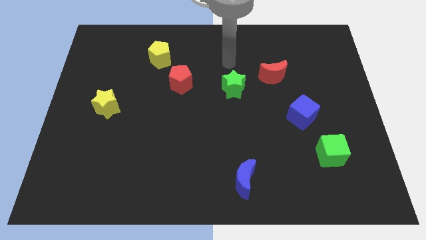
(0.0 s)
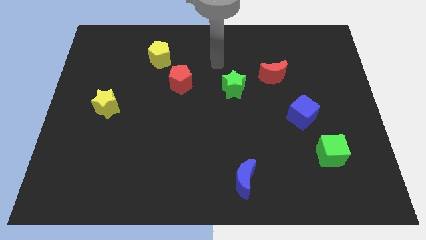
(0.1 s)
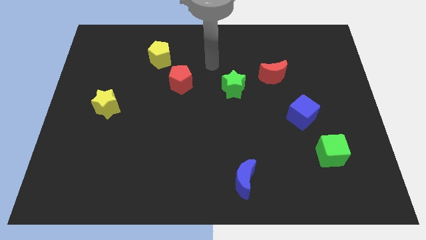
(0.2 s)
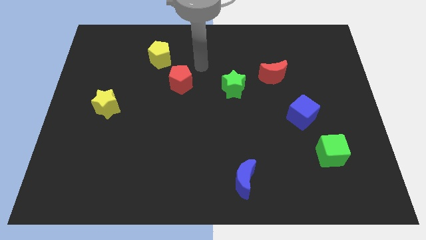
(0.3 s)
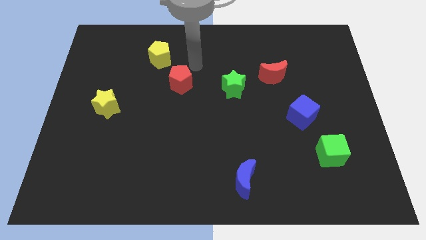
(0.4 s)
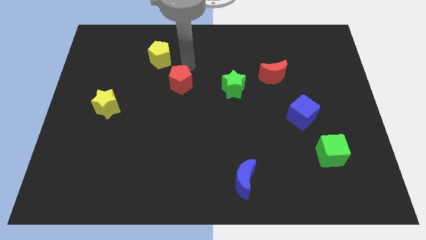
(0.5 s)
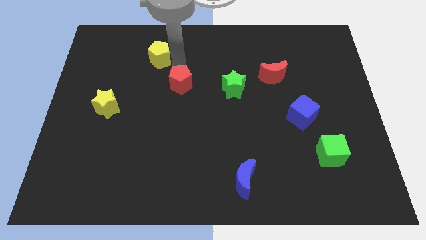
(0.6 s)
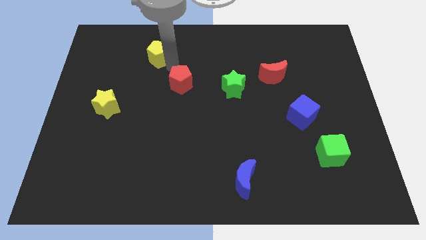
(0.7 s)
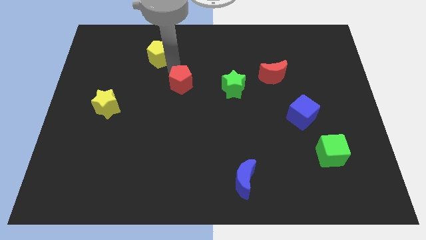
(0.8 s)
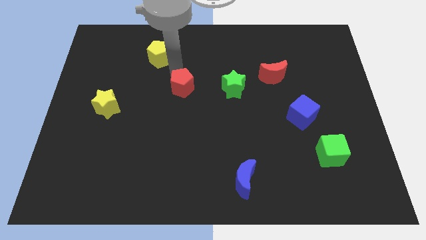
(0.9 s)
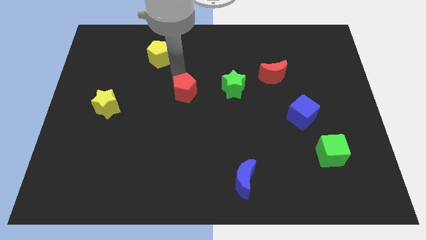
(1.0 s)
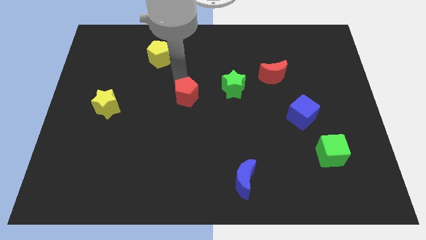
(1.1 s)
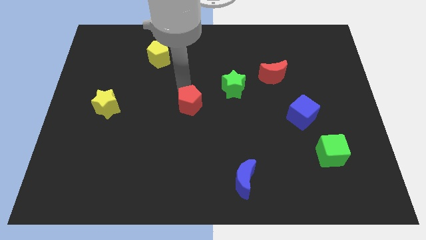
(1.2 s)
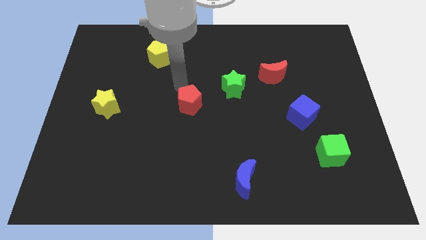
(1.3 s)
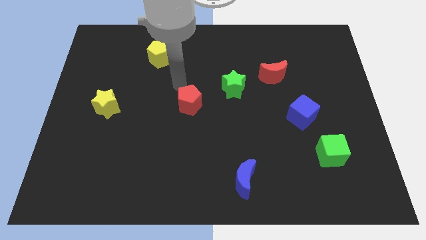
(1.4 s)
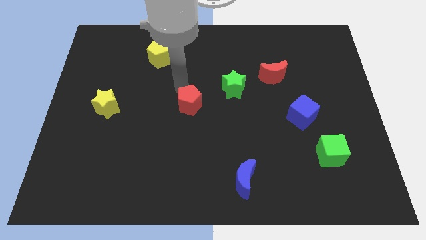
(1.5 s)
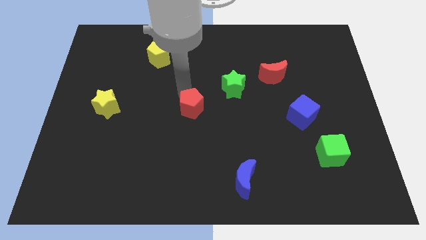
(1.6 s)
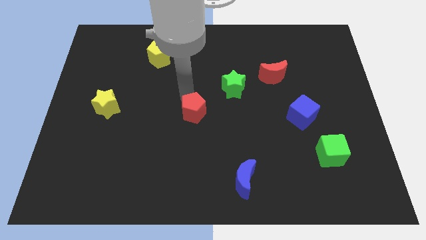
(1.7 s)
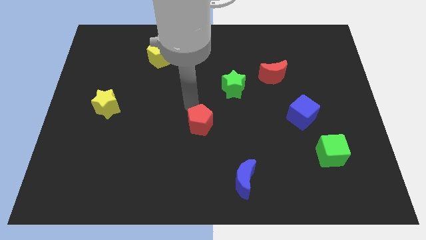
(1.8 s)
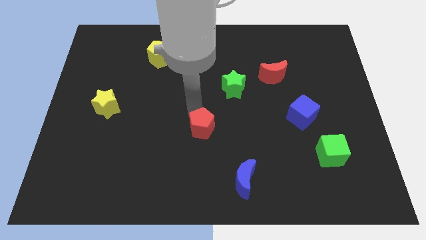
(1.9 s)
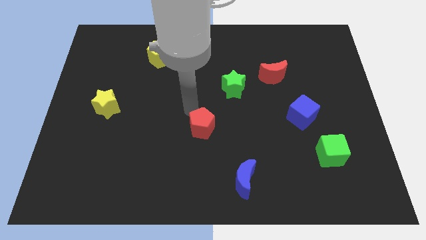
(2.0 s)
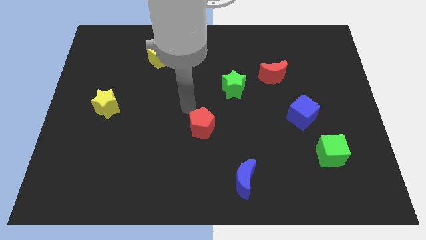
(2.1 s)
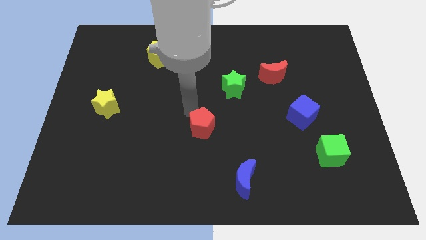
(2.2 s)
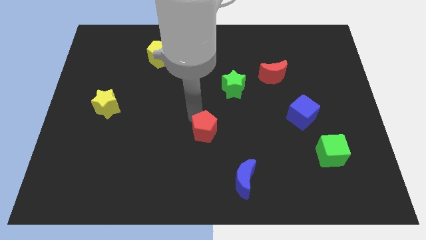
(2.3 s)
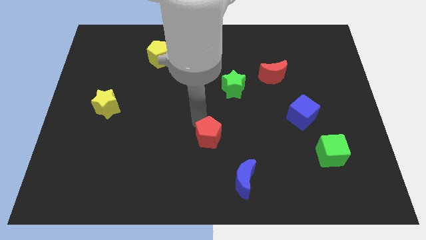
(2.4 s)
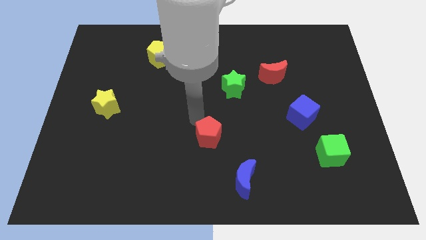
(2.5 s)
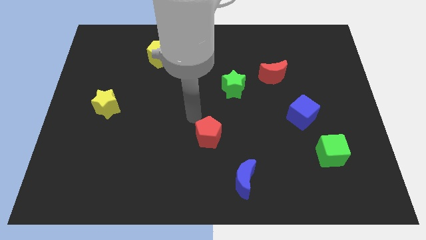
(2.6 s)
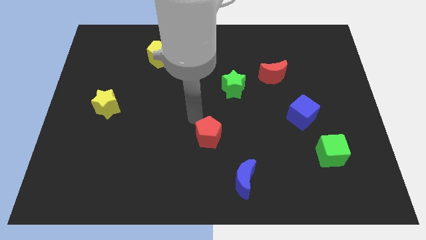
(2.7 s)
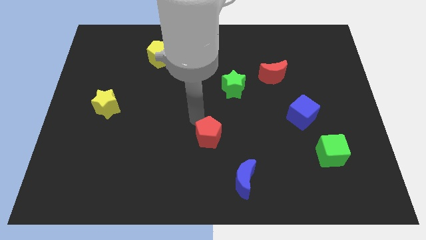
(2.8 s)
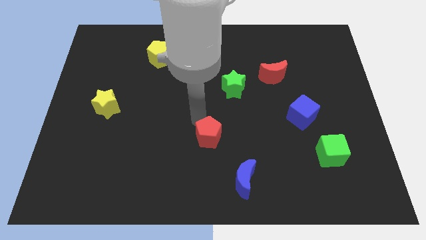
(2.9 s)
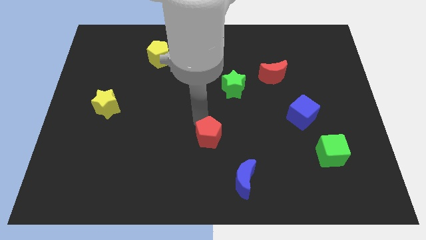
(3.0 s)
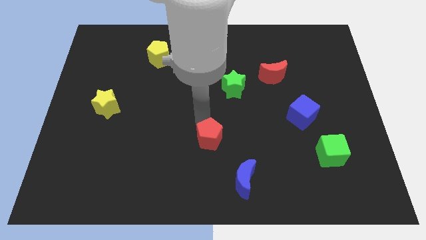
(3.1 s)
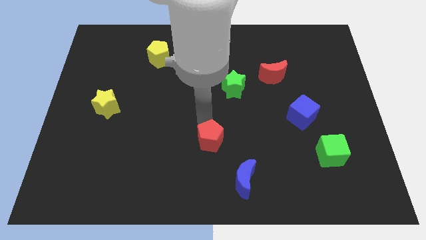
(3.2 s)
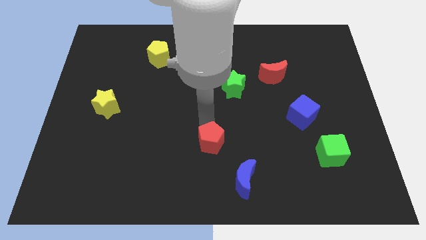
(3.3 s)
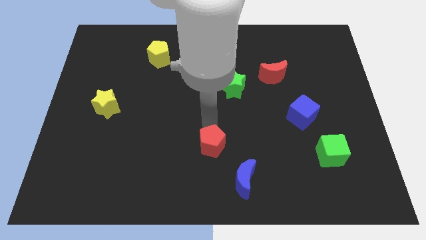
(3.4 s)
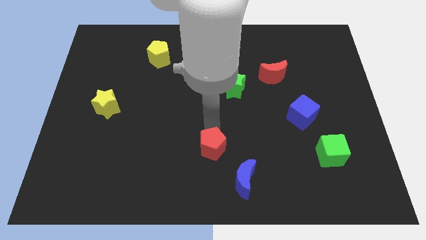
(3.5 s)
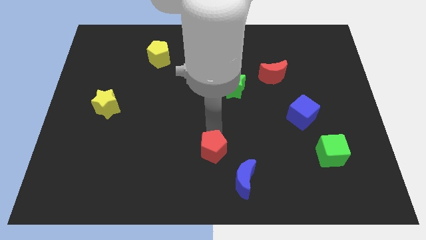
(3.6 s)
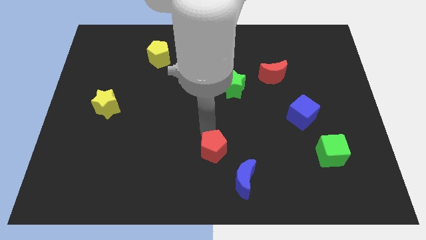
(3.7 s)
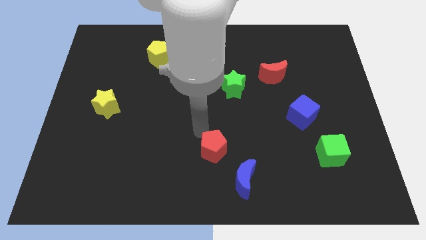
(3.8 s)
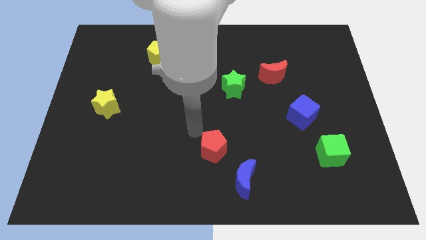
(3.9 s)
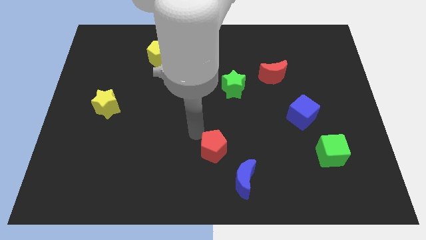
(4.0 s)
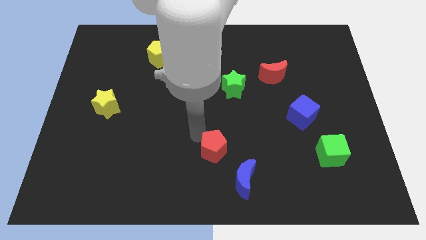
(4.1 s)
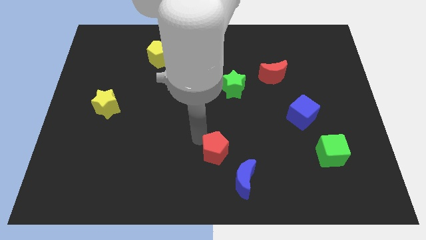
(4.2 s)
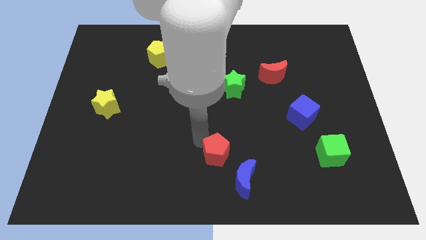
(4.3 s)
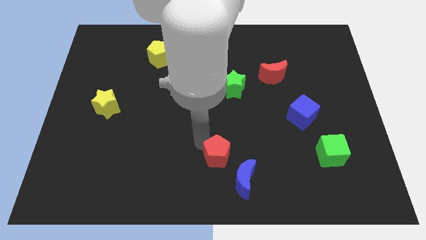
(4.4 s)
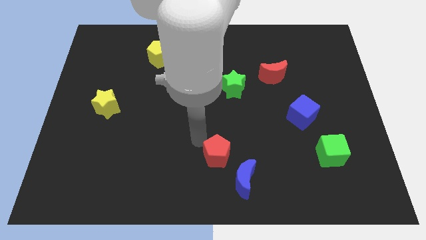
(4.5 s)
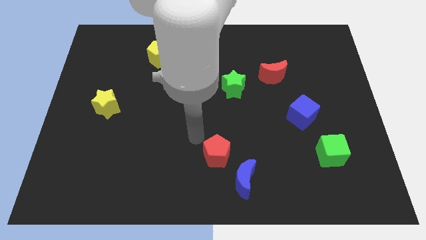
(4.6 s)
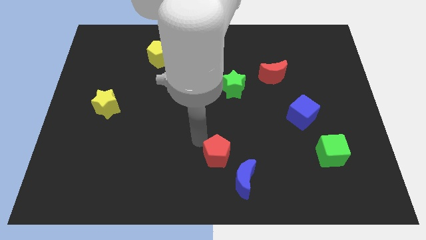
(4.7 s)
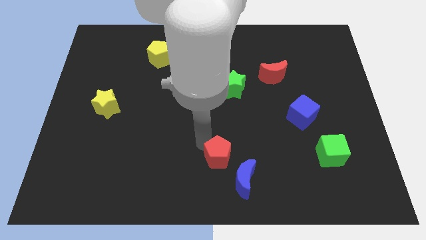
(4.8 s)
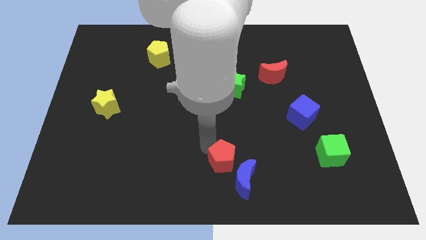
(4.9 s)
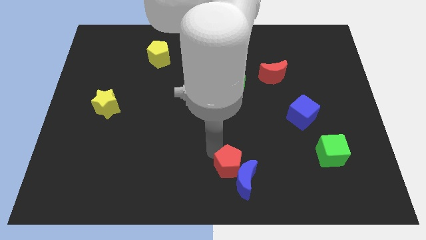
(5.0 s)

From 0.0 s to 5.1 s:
put the red pentagon close to the blue moon

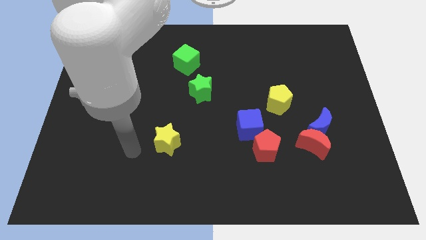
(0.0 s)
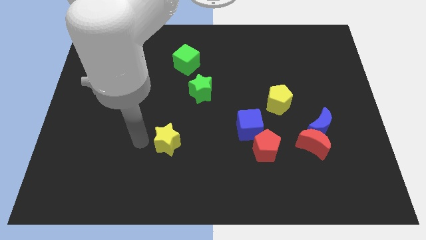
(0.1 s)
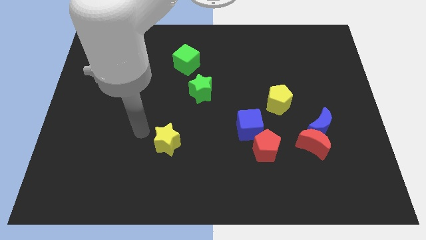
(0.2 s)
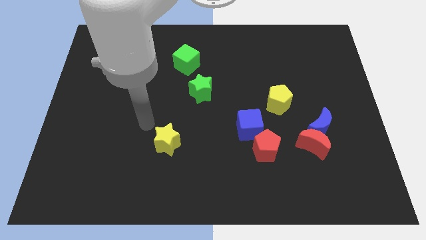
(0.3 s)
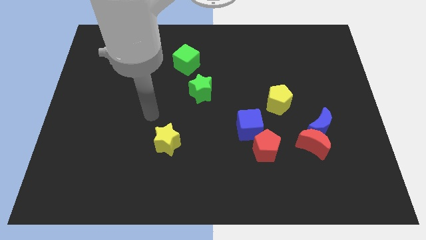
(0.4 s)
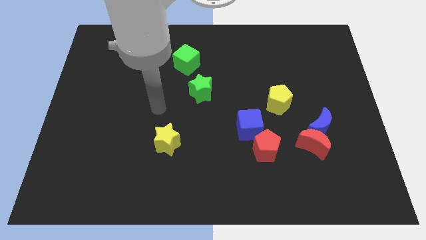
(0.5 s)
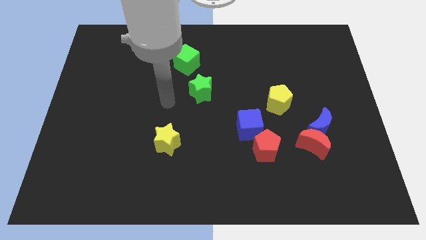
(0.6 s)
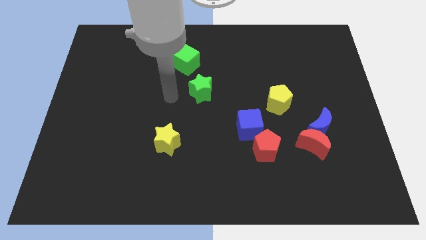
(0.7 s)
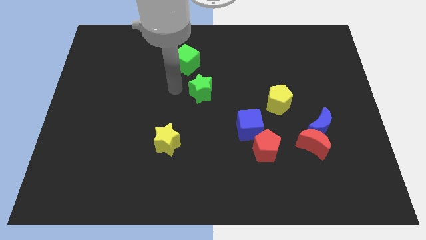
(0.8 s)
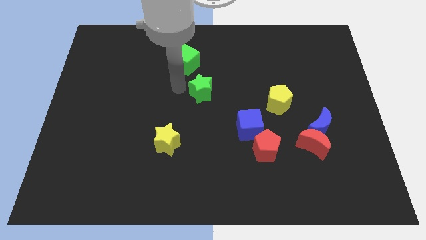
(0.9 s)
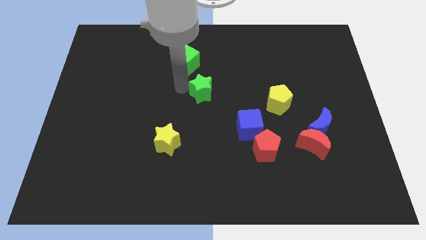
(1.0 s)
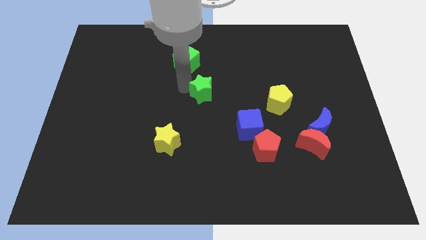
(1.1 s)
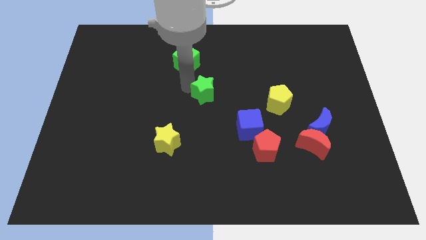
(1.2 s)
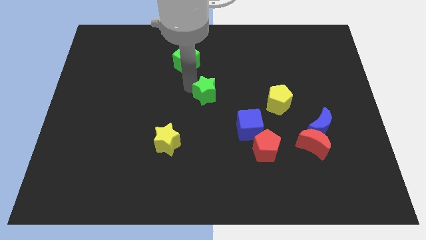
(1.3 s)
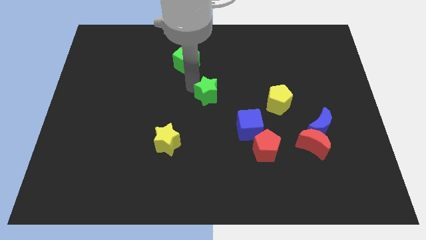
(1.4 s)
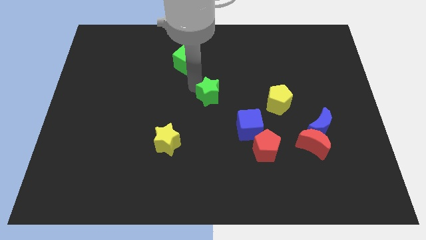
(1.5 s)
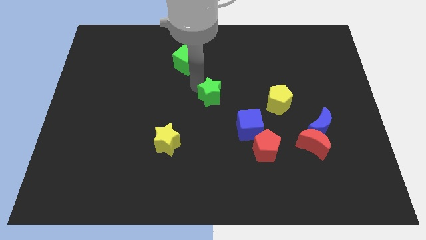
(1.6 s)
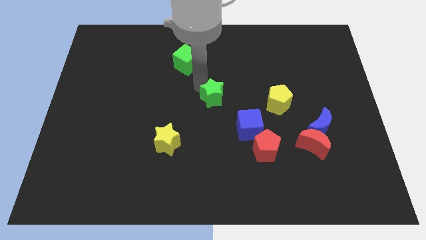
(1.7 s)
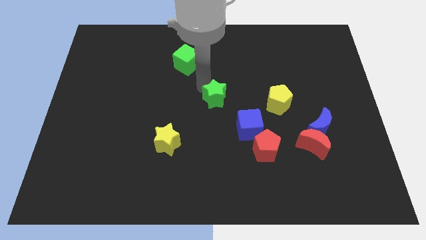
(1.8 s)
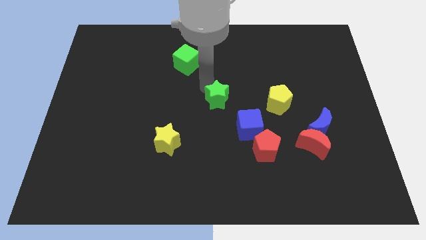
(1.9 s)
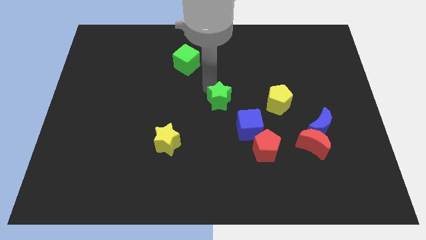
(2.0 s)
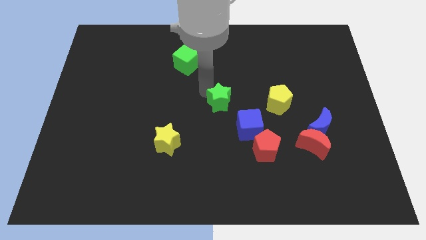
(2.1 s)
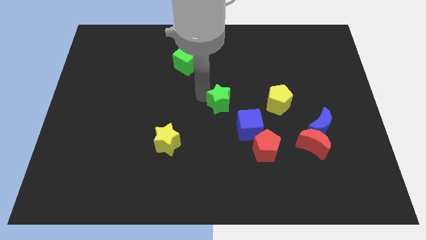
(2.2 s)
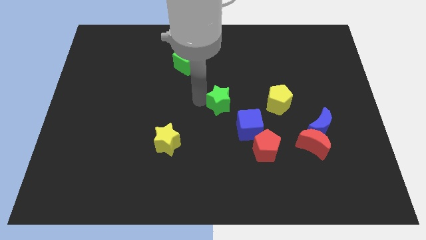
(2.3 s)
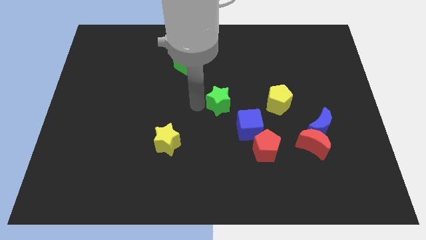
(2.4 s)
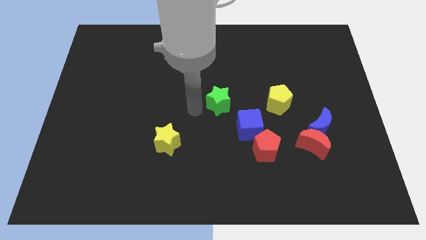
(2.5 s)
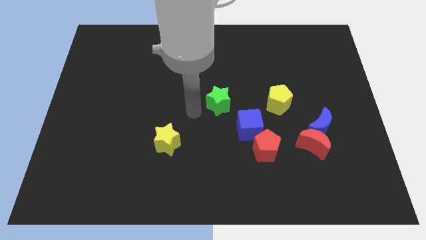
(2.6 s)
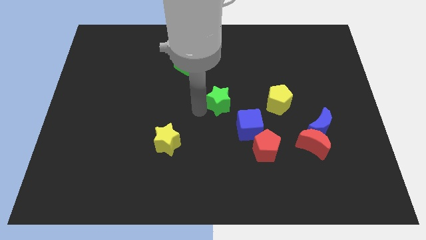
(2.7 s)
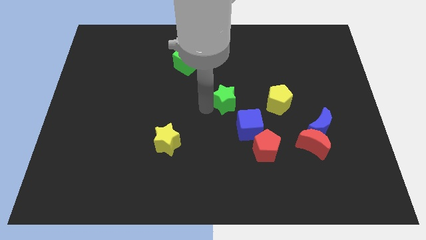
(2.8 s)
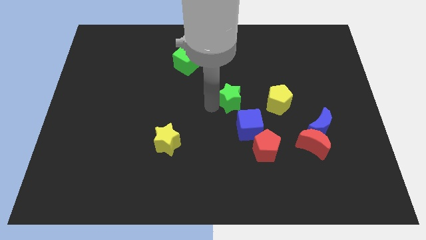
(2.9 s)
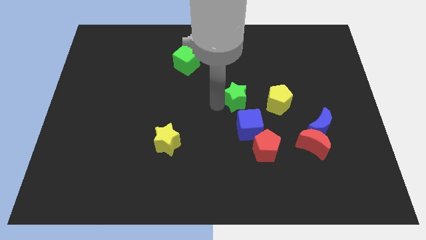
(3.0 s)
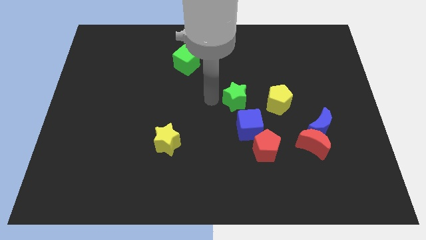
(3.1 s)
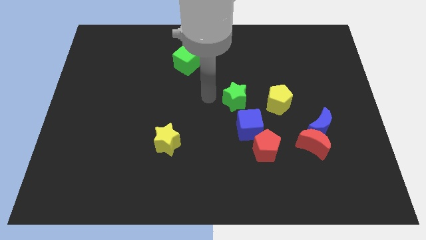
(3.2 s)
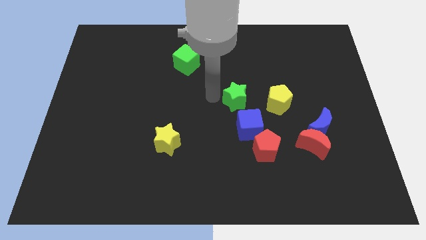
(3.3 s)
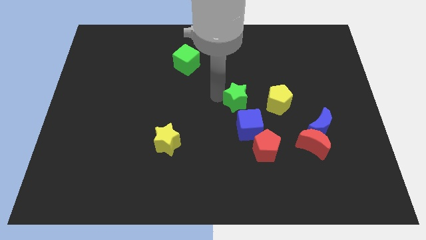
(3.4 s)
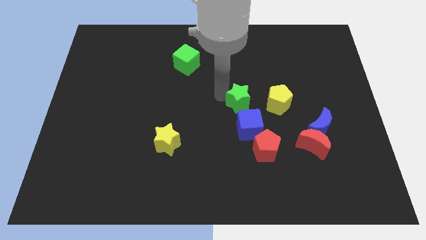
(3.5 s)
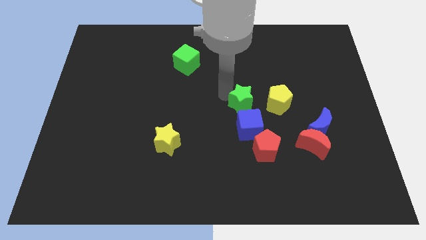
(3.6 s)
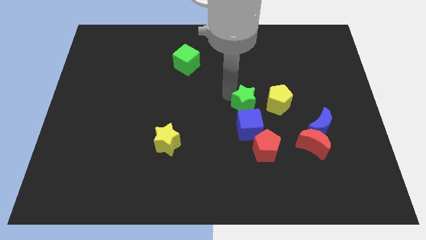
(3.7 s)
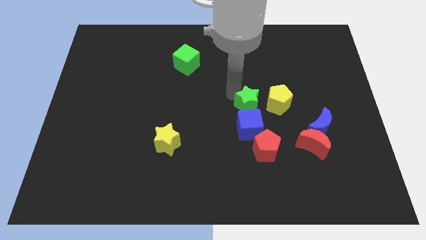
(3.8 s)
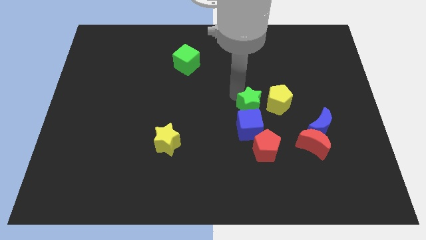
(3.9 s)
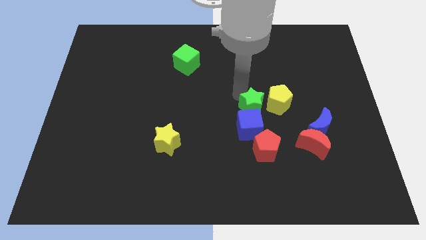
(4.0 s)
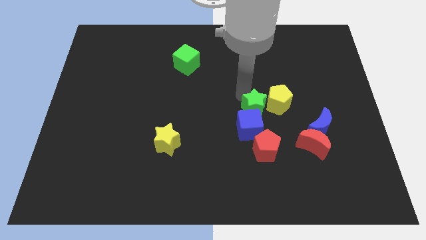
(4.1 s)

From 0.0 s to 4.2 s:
slide the green star to the yellow pentagon
